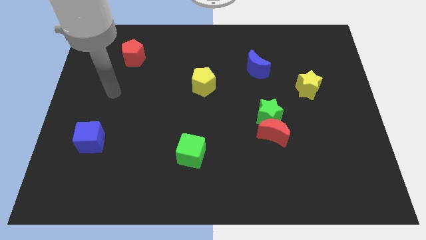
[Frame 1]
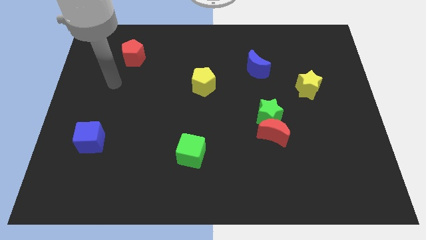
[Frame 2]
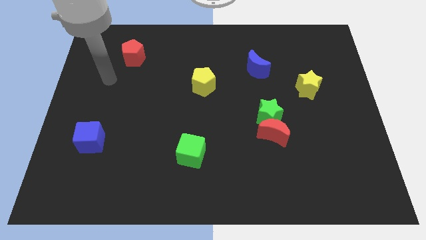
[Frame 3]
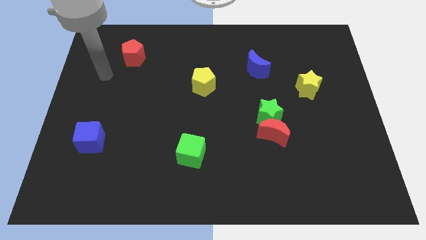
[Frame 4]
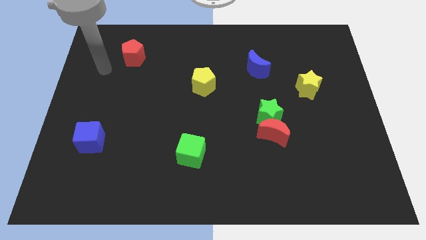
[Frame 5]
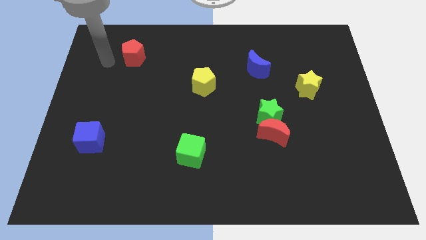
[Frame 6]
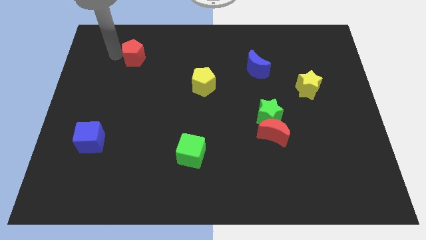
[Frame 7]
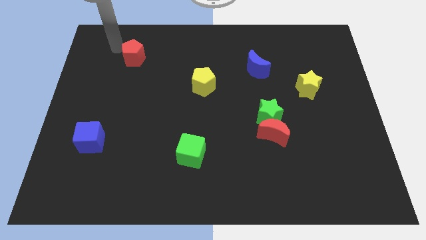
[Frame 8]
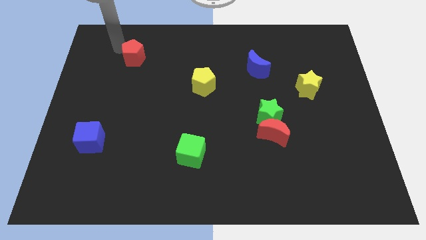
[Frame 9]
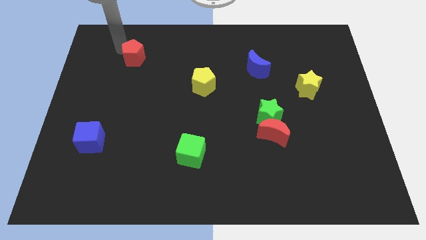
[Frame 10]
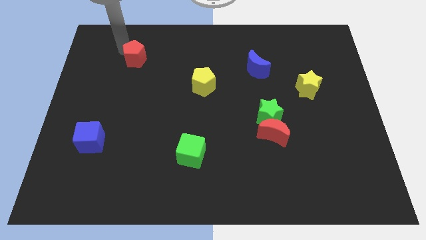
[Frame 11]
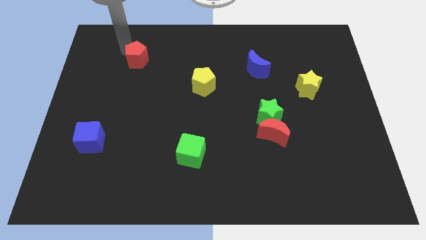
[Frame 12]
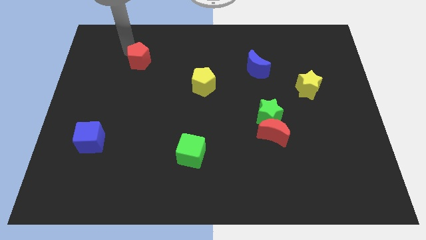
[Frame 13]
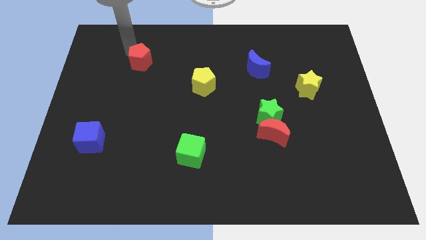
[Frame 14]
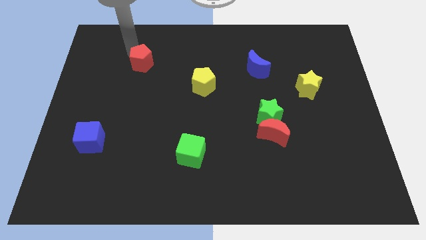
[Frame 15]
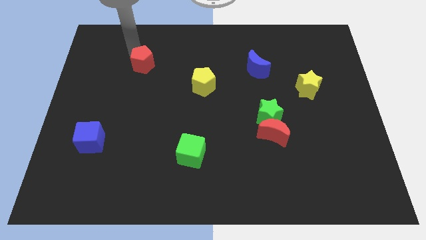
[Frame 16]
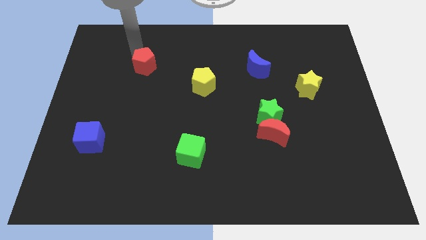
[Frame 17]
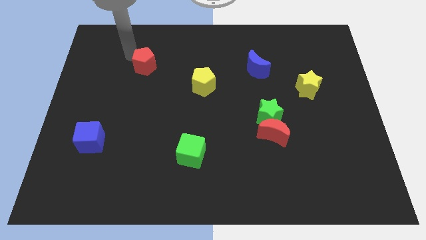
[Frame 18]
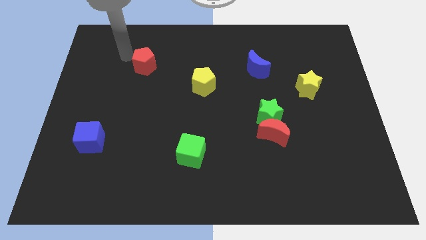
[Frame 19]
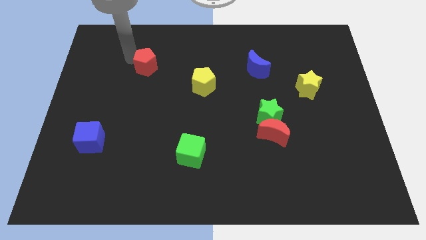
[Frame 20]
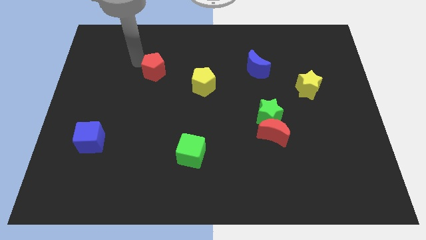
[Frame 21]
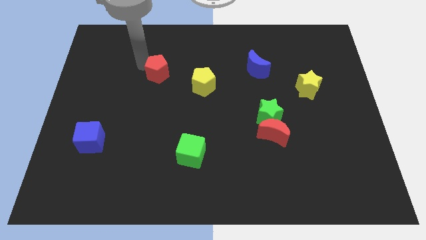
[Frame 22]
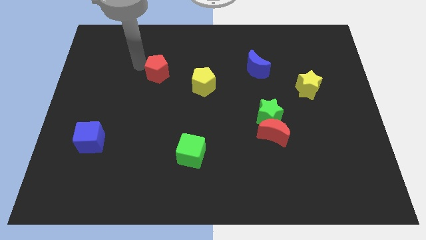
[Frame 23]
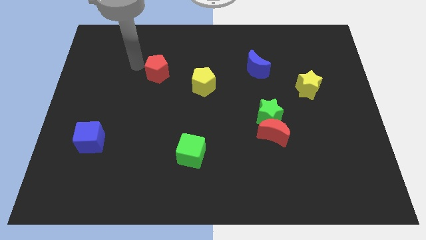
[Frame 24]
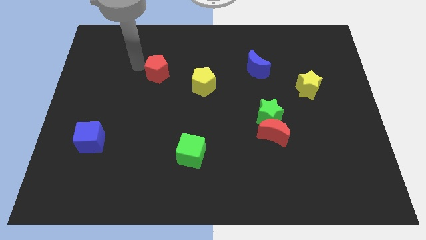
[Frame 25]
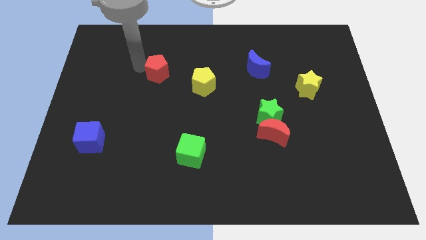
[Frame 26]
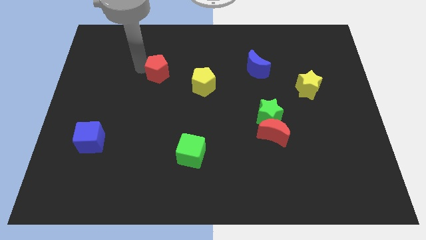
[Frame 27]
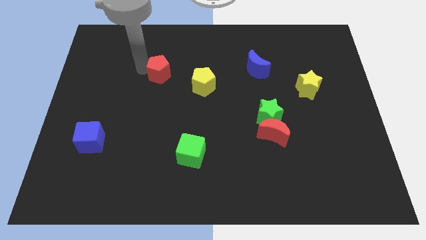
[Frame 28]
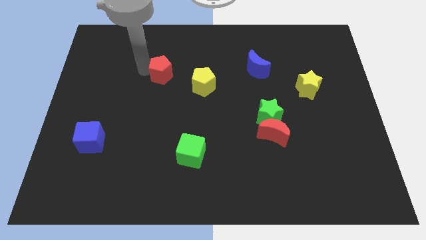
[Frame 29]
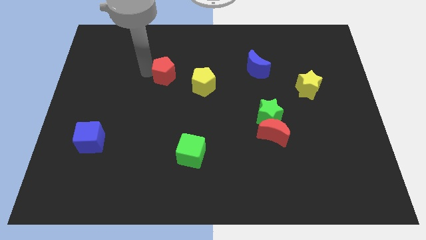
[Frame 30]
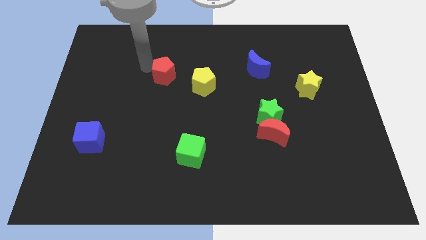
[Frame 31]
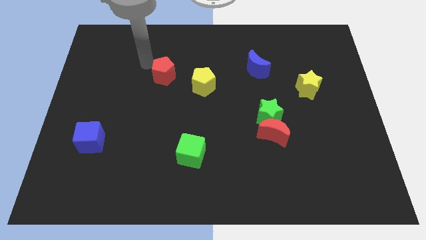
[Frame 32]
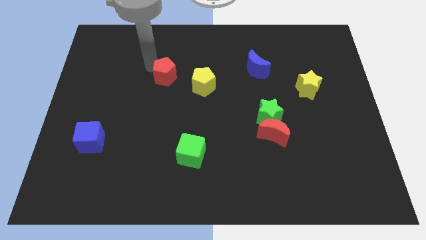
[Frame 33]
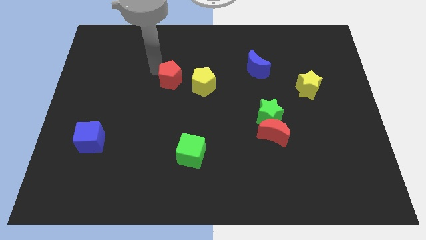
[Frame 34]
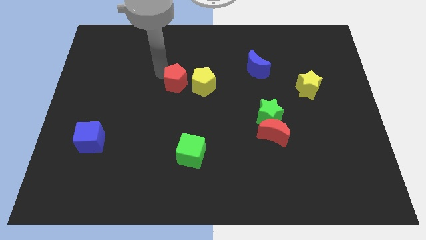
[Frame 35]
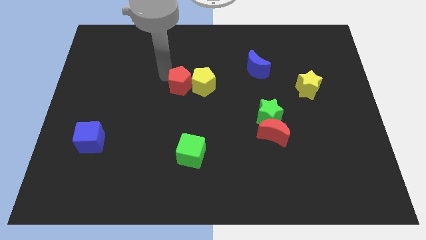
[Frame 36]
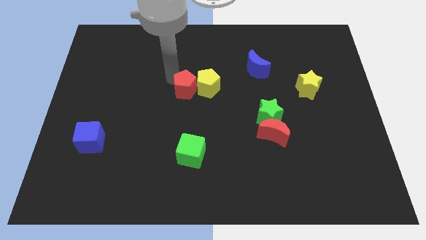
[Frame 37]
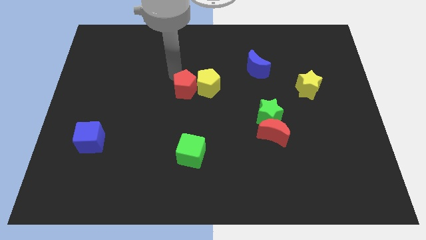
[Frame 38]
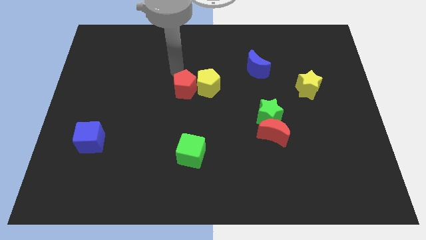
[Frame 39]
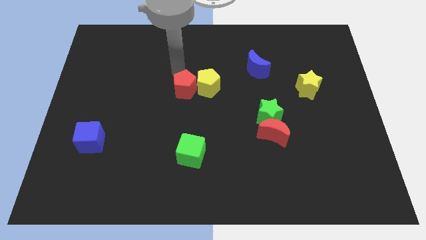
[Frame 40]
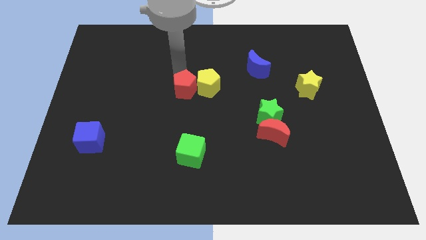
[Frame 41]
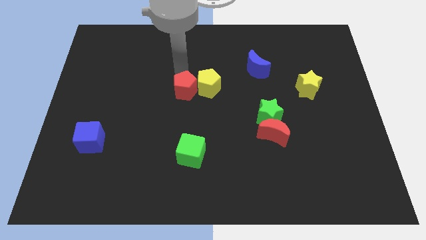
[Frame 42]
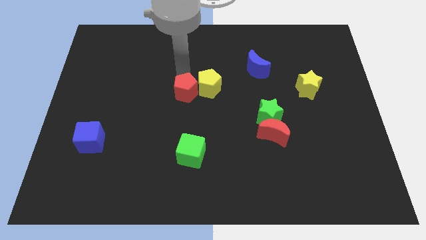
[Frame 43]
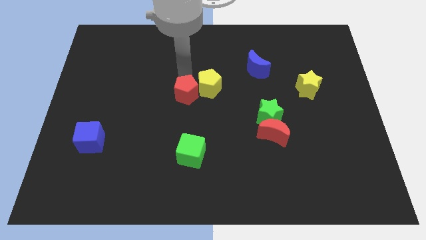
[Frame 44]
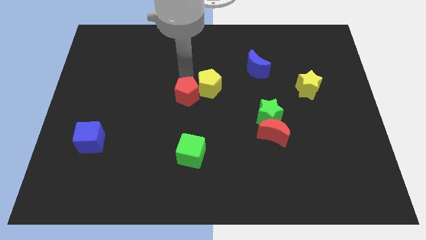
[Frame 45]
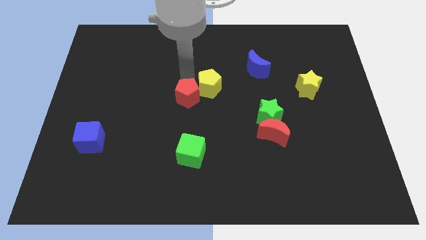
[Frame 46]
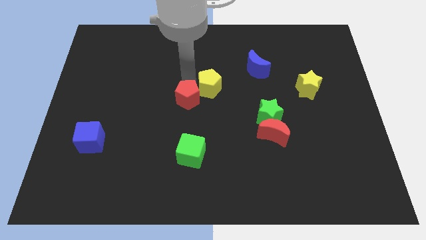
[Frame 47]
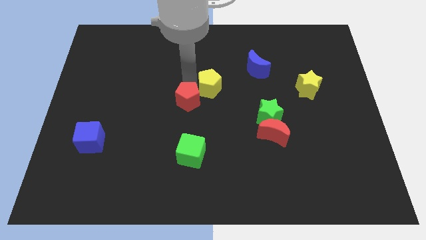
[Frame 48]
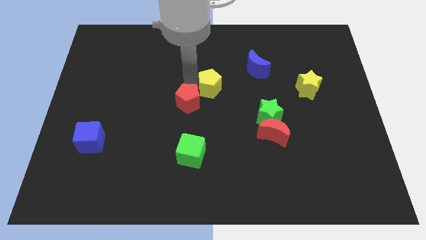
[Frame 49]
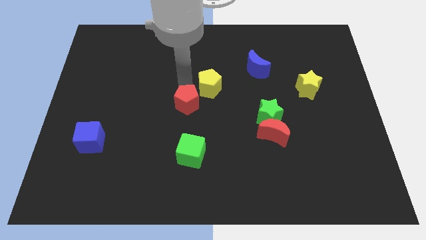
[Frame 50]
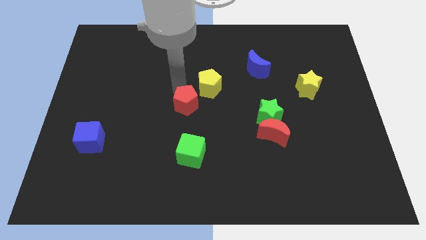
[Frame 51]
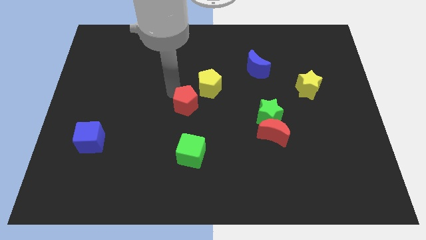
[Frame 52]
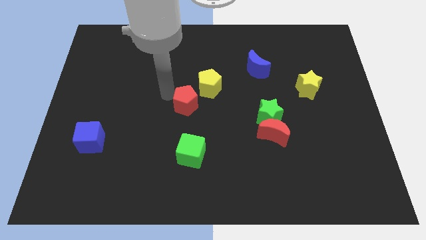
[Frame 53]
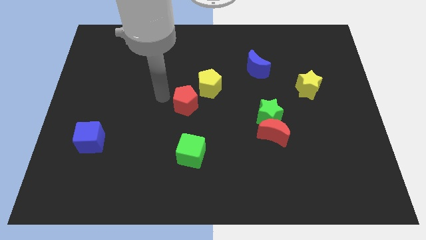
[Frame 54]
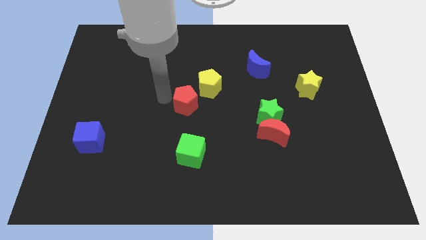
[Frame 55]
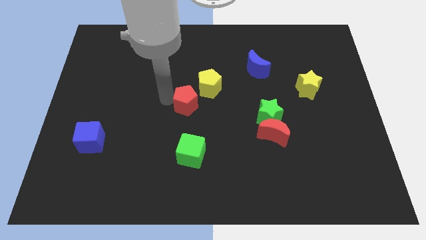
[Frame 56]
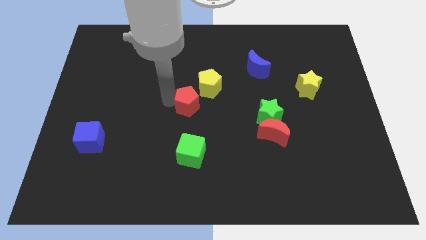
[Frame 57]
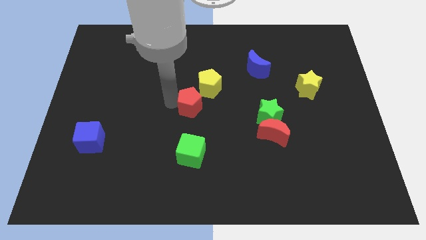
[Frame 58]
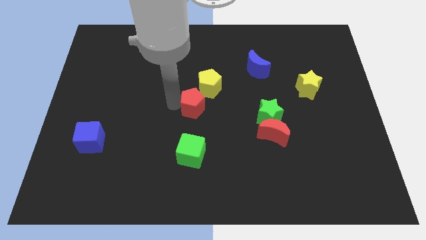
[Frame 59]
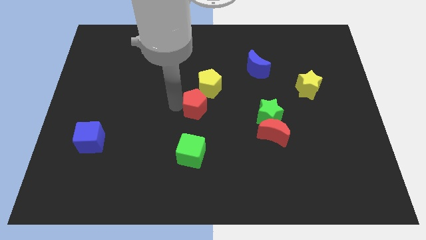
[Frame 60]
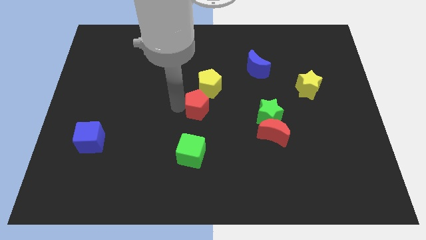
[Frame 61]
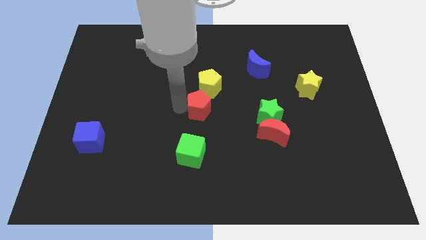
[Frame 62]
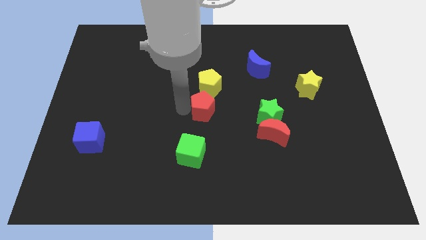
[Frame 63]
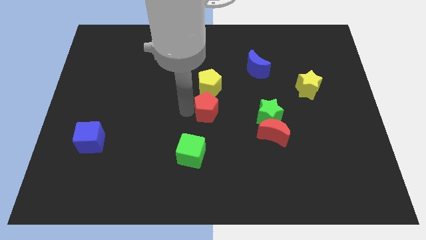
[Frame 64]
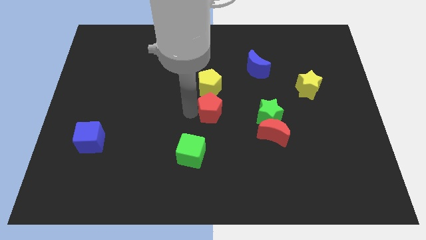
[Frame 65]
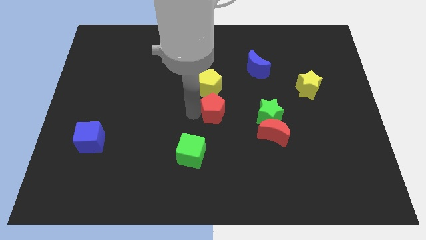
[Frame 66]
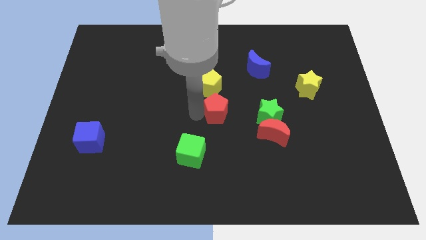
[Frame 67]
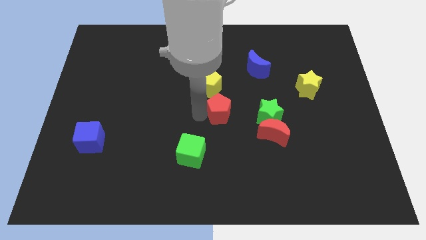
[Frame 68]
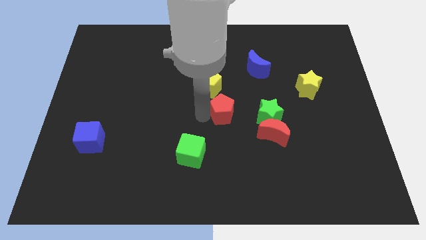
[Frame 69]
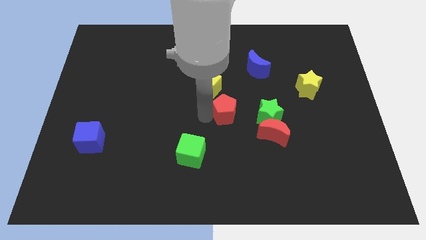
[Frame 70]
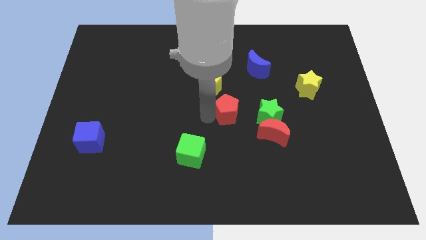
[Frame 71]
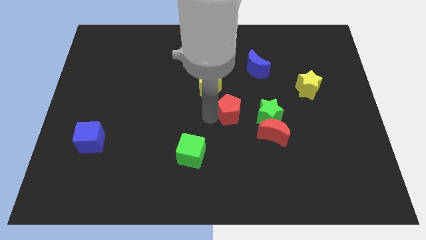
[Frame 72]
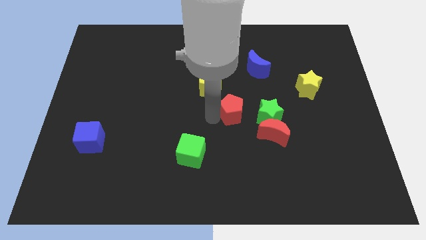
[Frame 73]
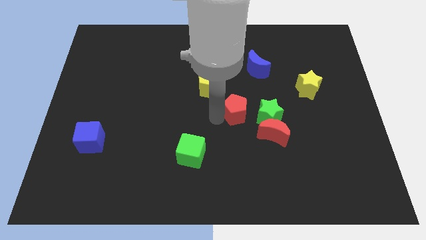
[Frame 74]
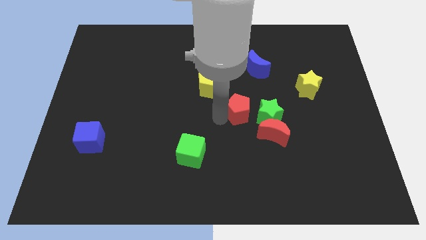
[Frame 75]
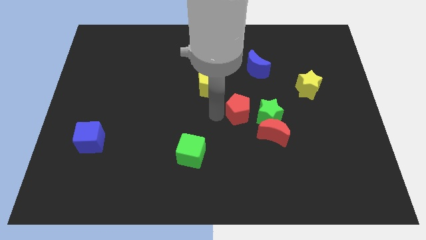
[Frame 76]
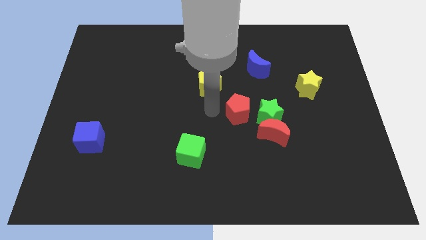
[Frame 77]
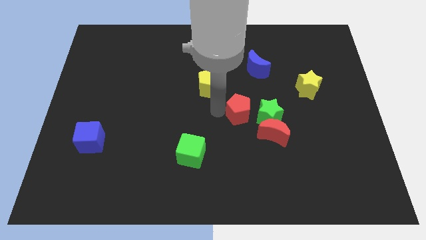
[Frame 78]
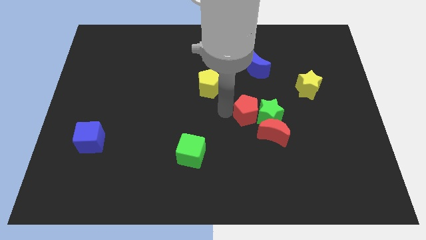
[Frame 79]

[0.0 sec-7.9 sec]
move the red pentagon towards the green star

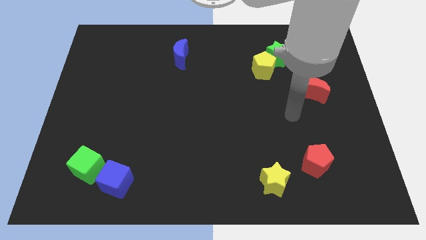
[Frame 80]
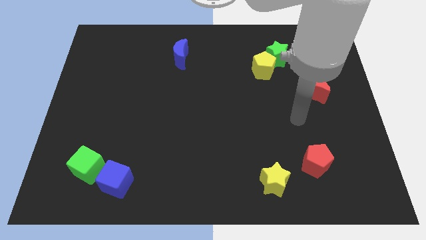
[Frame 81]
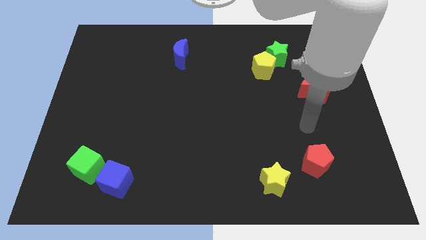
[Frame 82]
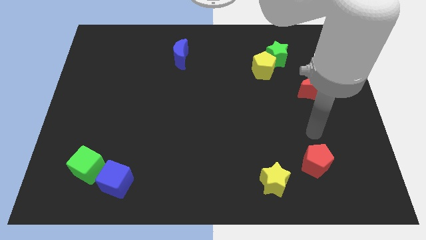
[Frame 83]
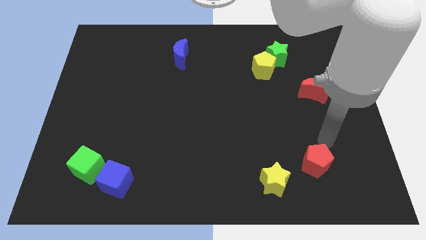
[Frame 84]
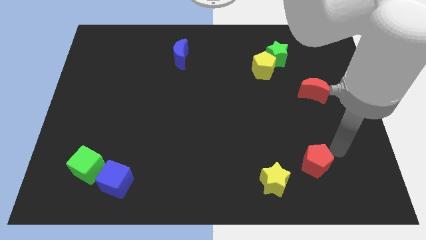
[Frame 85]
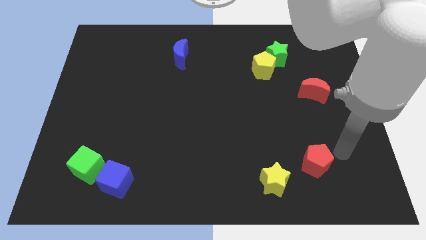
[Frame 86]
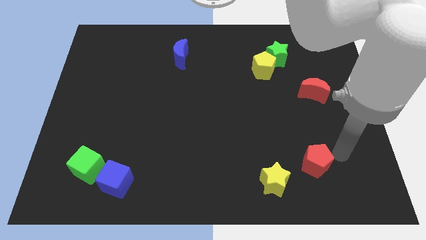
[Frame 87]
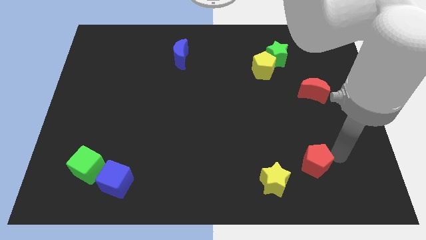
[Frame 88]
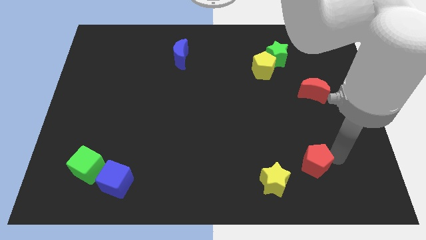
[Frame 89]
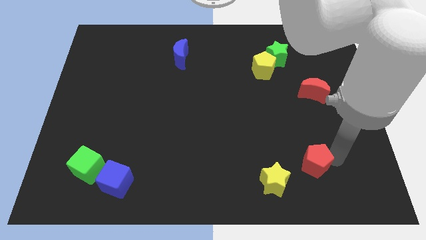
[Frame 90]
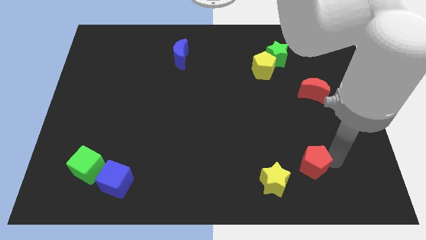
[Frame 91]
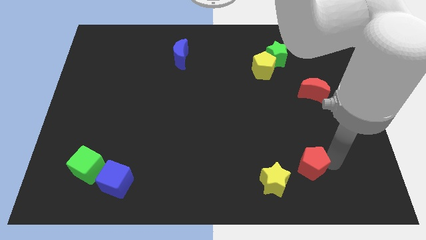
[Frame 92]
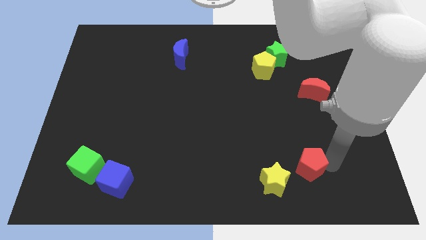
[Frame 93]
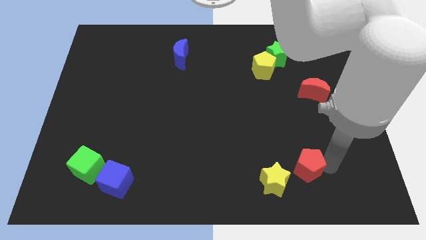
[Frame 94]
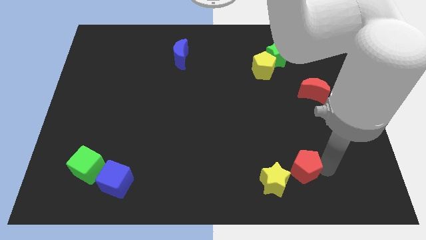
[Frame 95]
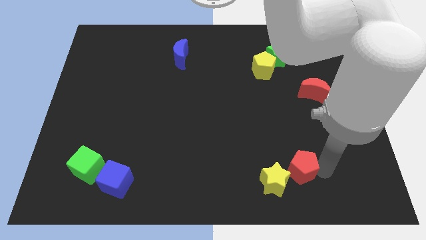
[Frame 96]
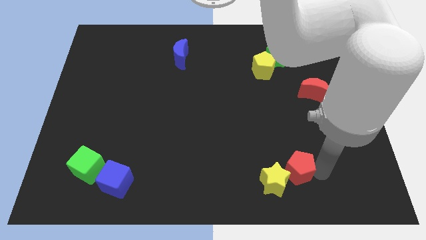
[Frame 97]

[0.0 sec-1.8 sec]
slide the red pentagon to the yellow star
